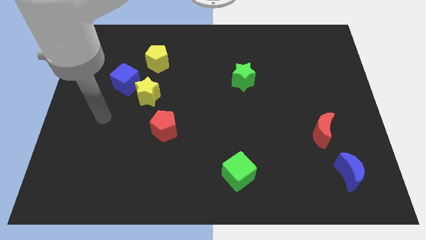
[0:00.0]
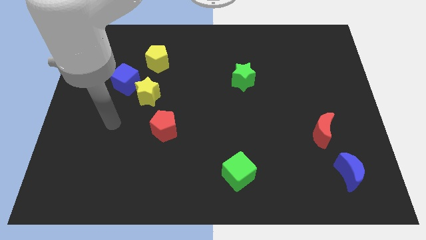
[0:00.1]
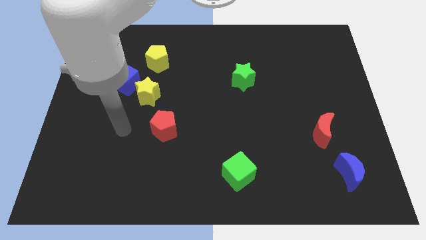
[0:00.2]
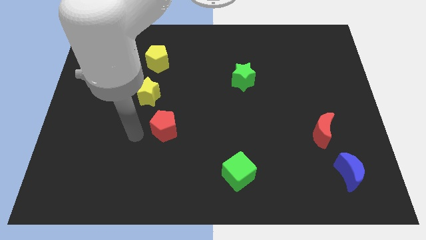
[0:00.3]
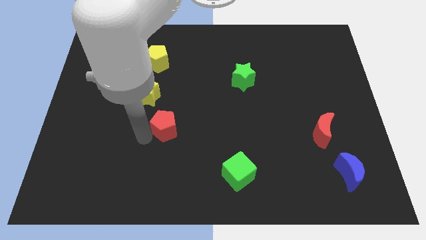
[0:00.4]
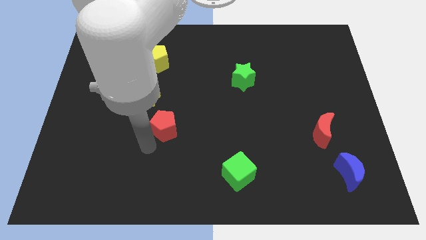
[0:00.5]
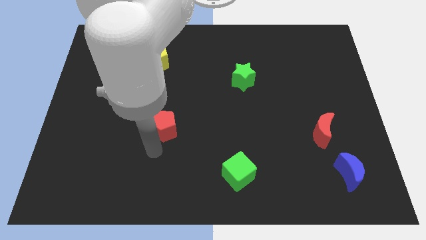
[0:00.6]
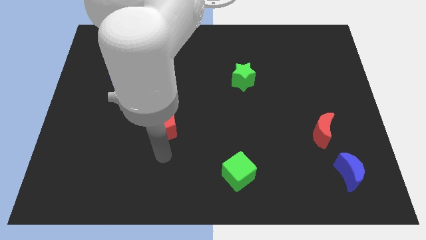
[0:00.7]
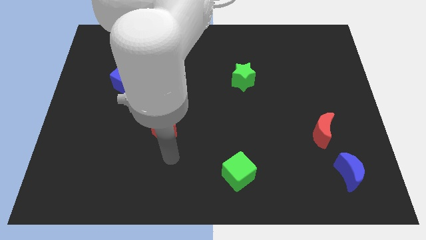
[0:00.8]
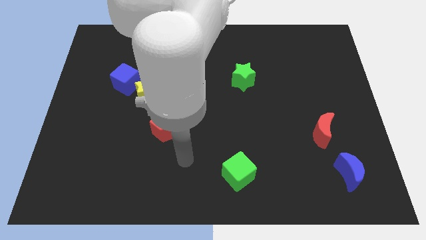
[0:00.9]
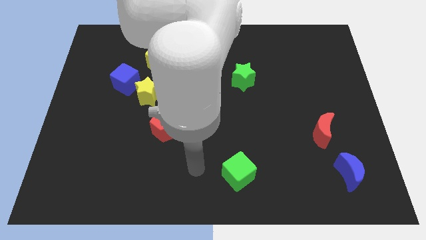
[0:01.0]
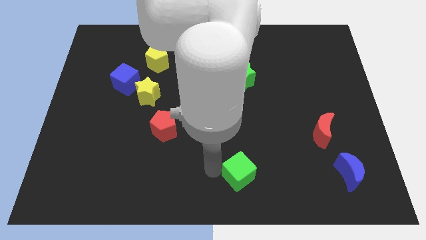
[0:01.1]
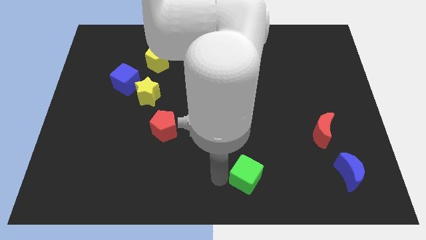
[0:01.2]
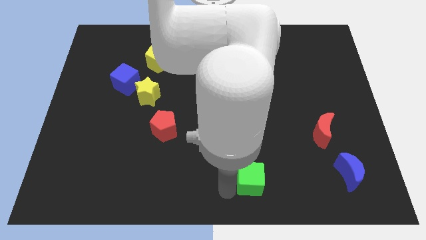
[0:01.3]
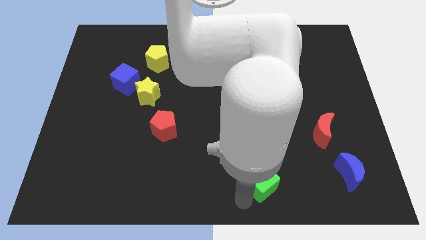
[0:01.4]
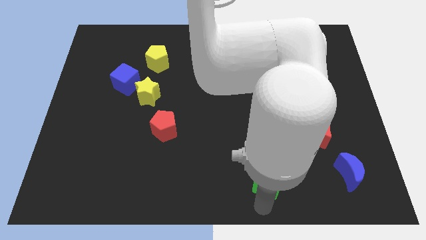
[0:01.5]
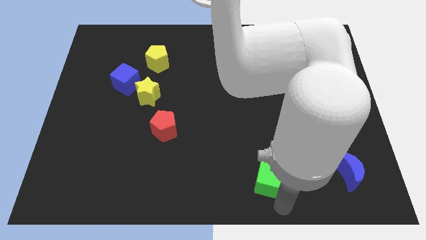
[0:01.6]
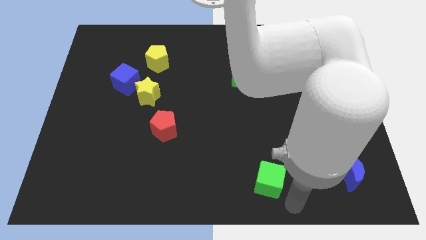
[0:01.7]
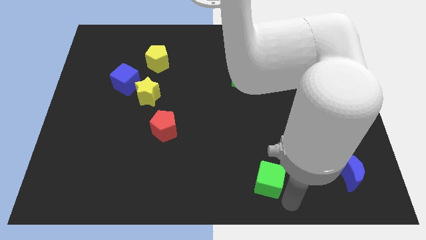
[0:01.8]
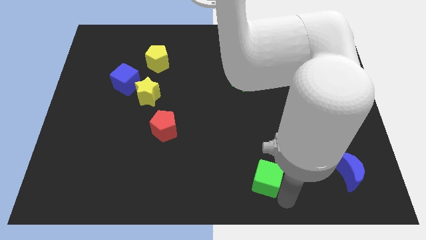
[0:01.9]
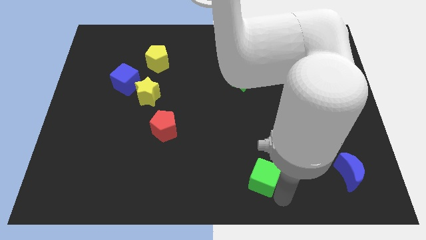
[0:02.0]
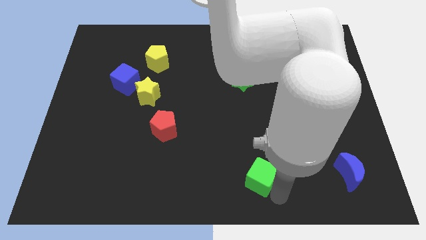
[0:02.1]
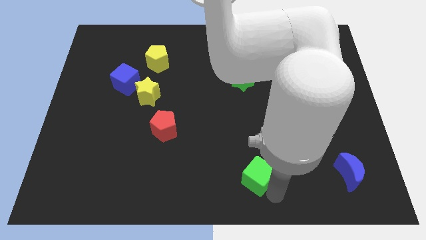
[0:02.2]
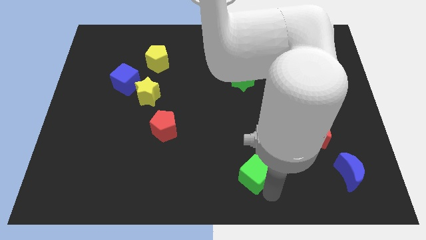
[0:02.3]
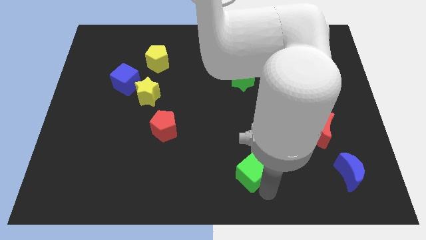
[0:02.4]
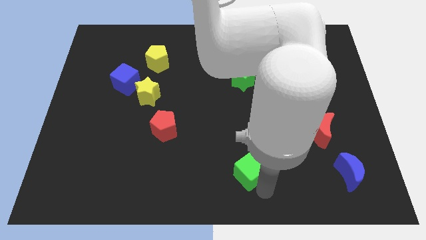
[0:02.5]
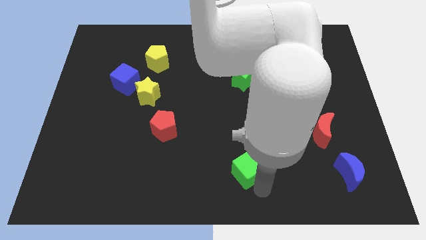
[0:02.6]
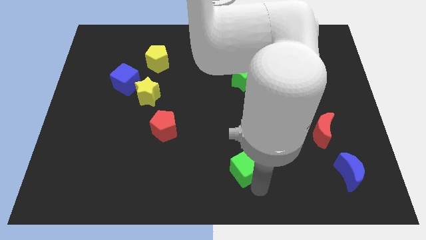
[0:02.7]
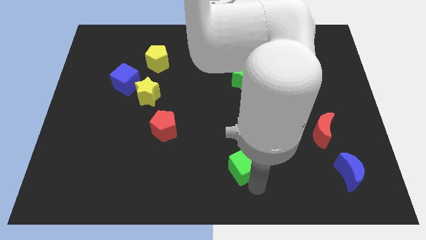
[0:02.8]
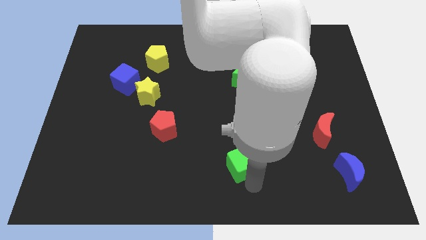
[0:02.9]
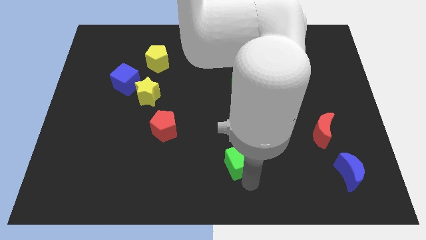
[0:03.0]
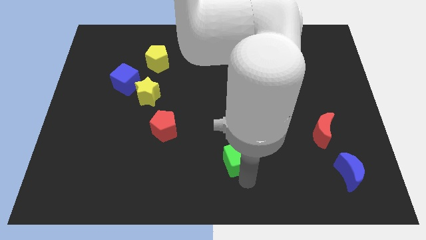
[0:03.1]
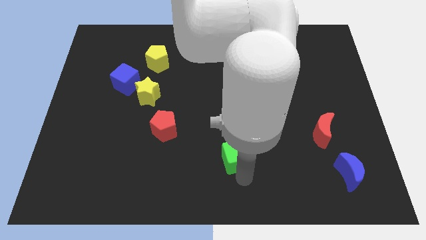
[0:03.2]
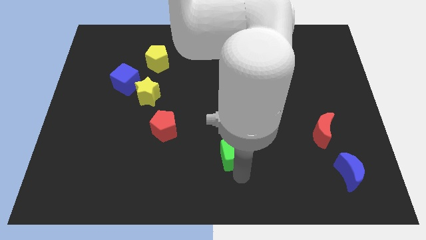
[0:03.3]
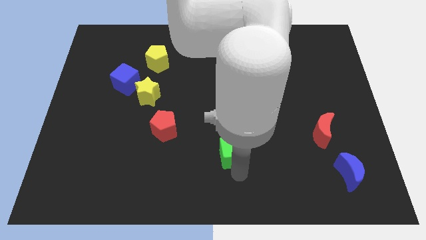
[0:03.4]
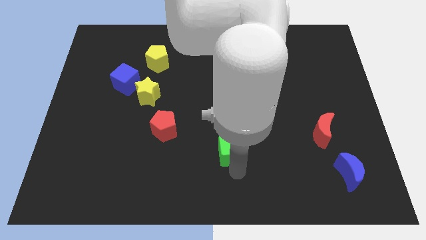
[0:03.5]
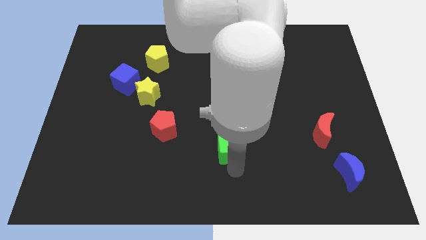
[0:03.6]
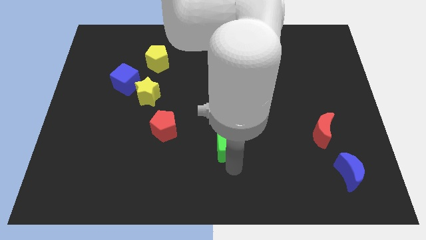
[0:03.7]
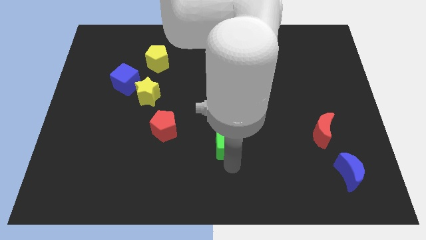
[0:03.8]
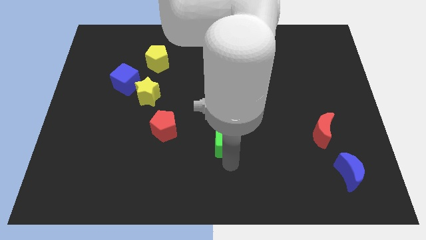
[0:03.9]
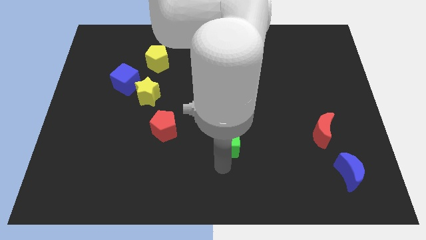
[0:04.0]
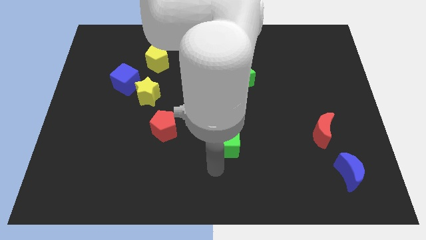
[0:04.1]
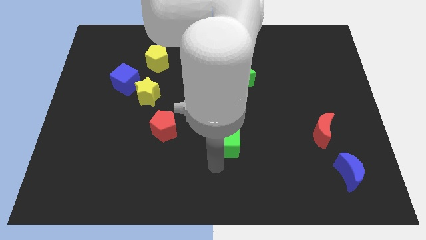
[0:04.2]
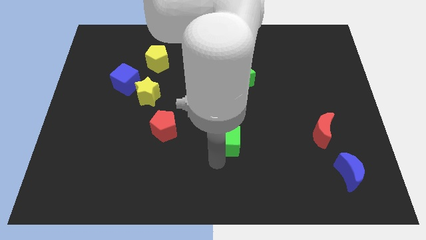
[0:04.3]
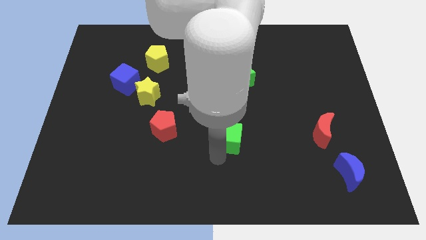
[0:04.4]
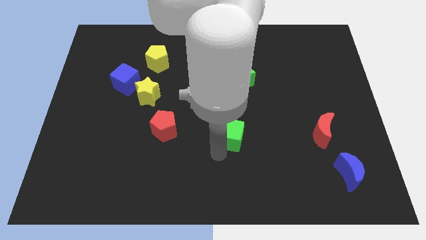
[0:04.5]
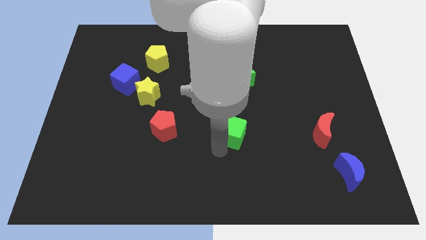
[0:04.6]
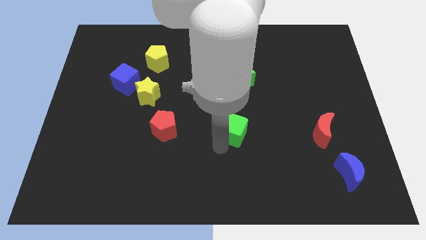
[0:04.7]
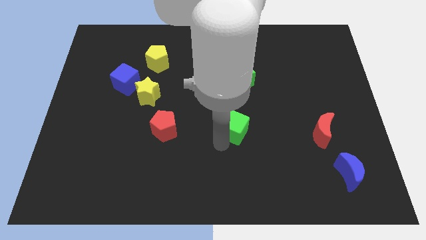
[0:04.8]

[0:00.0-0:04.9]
push the green cube to the bottom side of the green star

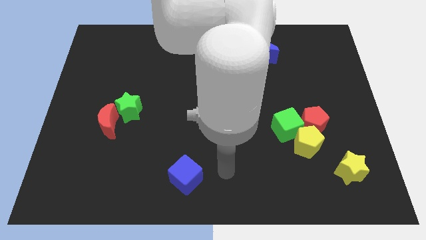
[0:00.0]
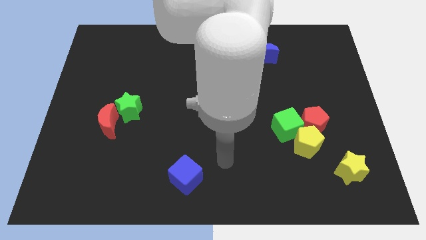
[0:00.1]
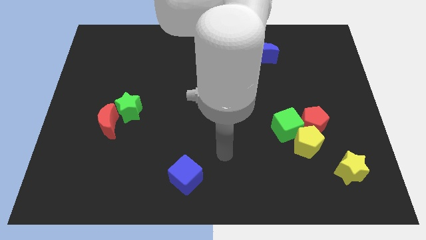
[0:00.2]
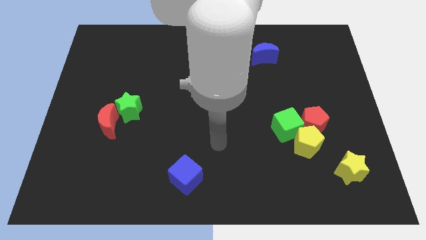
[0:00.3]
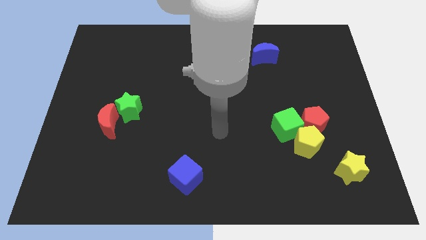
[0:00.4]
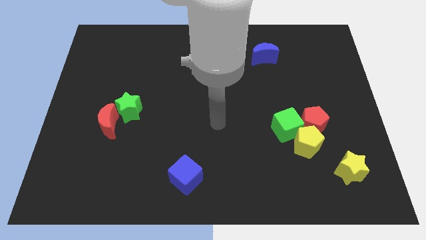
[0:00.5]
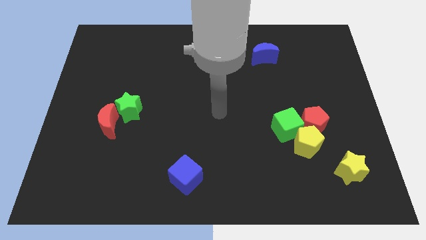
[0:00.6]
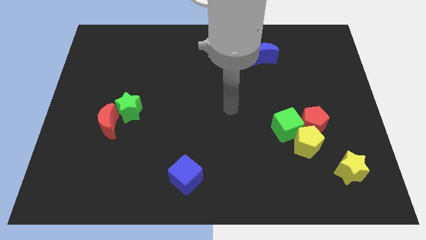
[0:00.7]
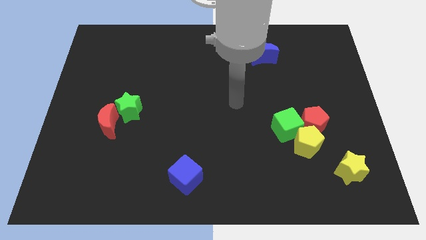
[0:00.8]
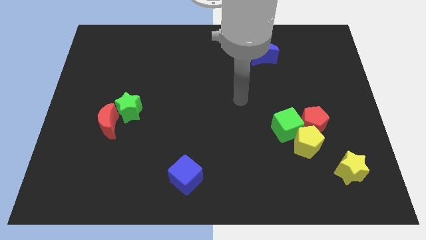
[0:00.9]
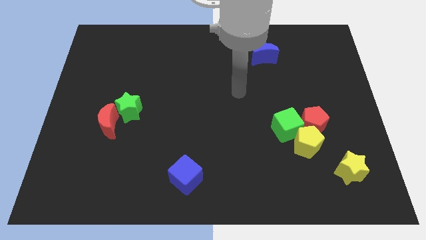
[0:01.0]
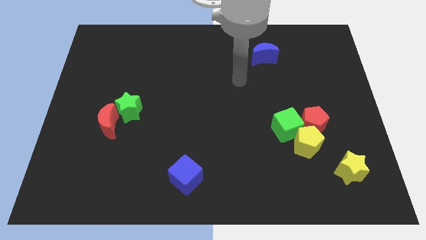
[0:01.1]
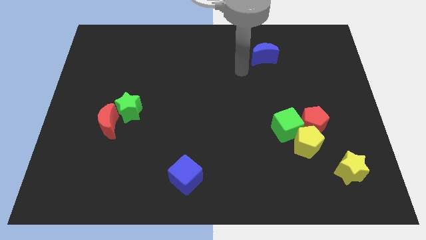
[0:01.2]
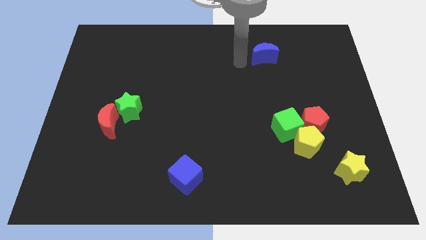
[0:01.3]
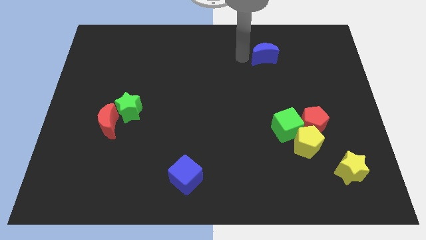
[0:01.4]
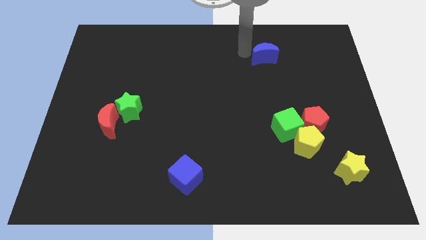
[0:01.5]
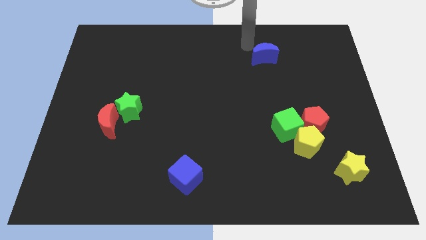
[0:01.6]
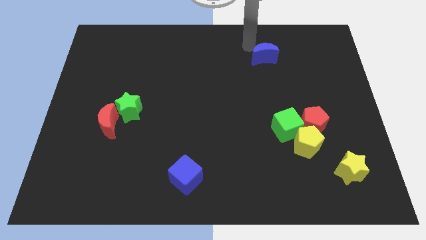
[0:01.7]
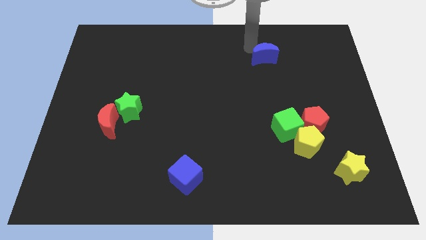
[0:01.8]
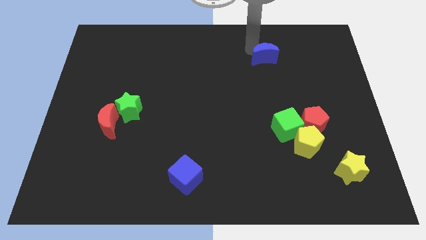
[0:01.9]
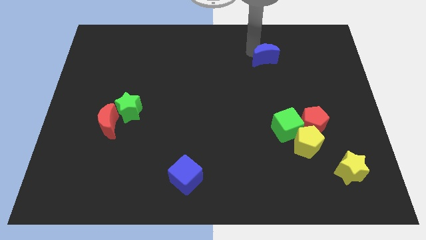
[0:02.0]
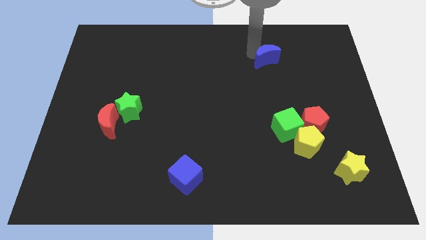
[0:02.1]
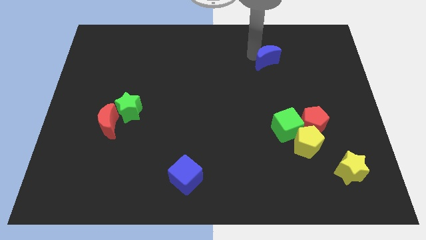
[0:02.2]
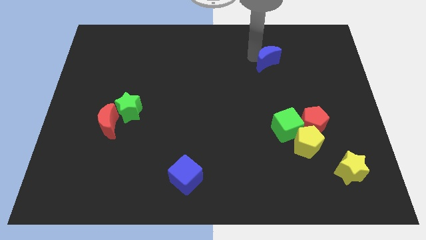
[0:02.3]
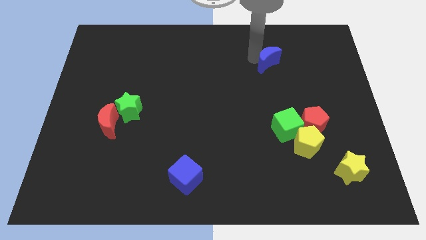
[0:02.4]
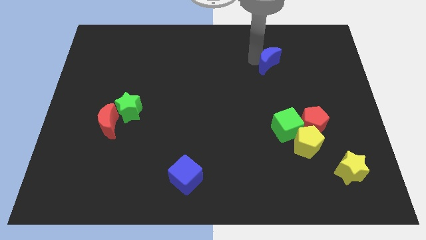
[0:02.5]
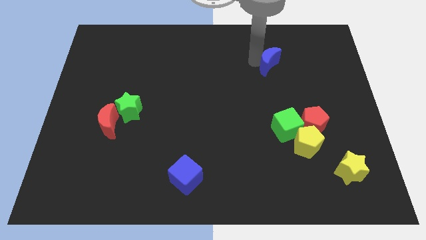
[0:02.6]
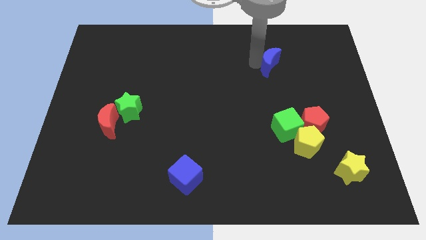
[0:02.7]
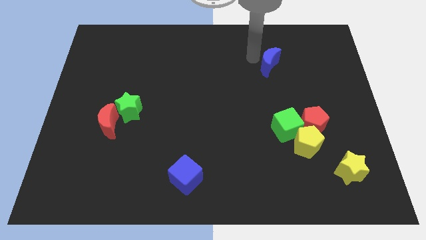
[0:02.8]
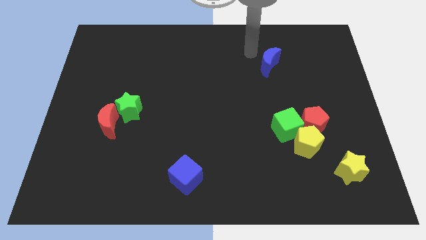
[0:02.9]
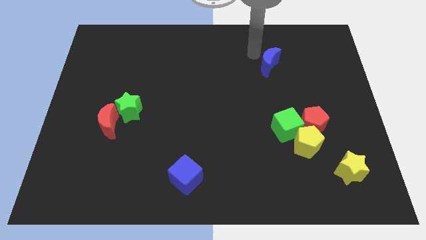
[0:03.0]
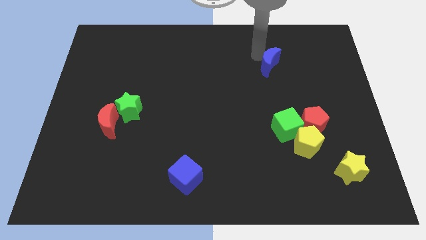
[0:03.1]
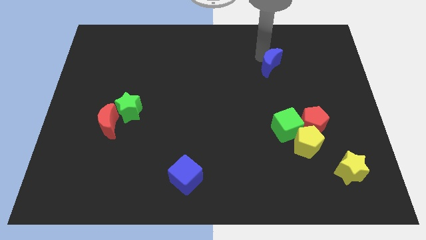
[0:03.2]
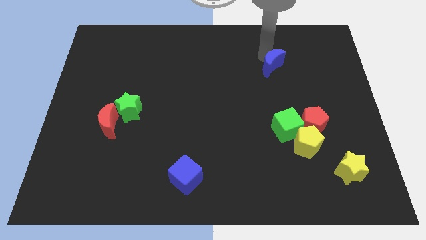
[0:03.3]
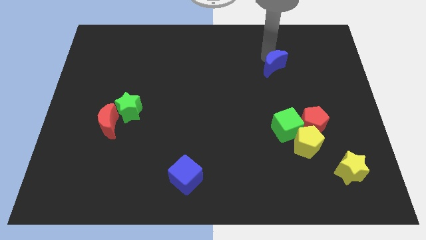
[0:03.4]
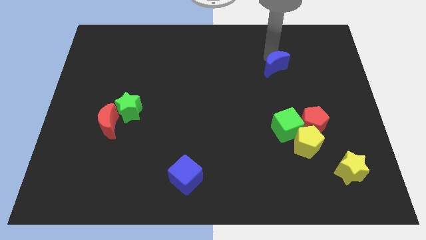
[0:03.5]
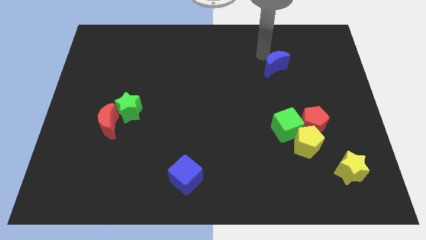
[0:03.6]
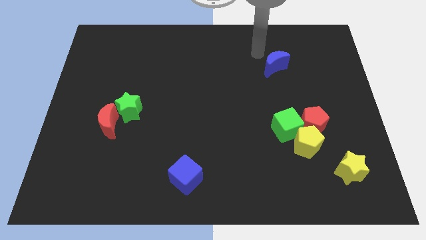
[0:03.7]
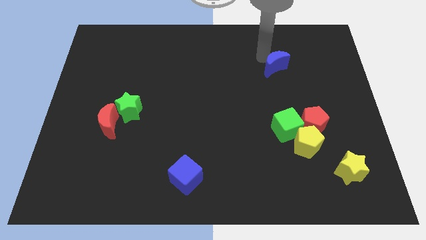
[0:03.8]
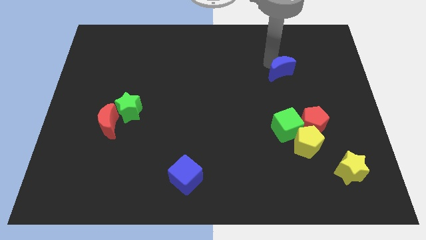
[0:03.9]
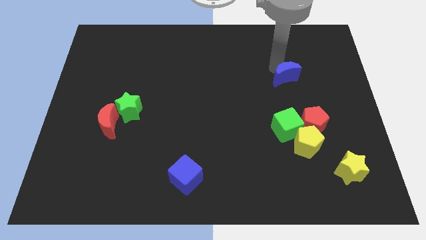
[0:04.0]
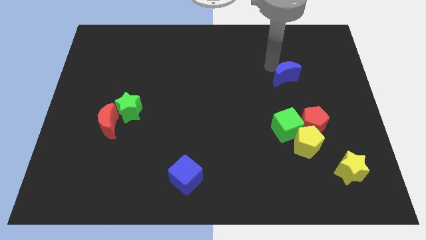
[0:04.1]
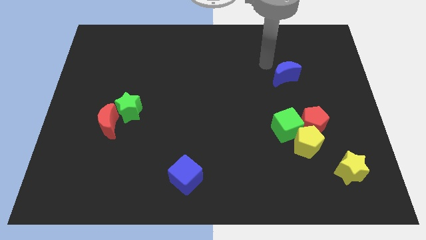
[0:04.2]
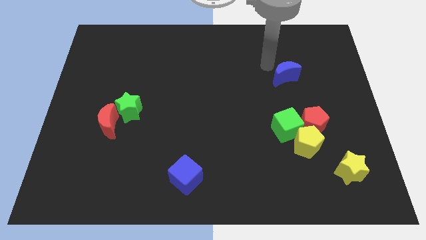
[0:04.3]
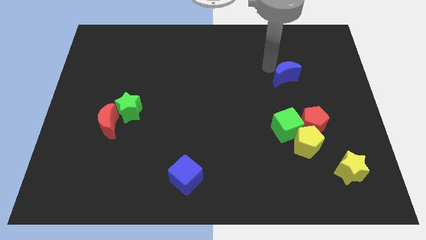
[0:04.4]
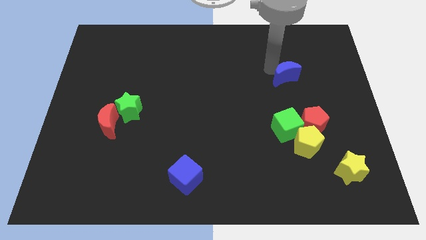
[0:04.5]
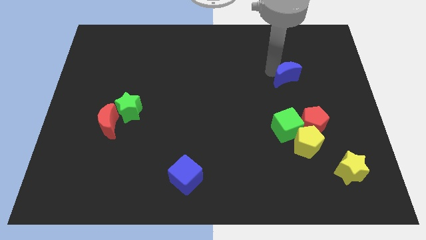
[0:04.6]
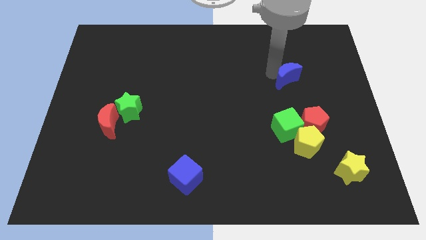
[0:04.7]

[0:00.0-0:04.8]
slide the blue moon to the top side of the red pentagon
